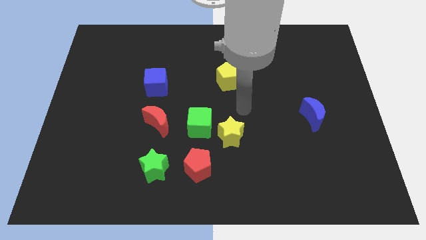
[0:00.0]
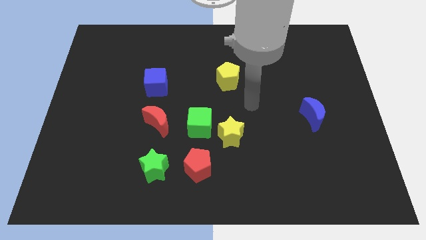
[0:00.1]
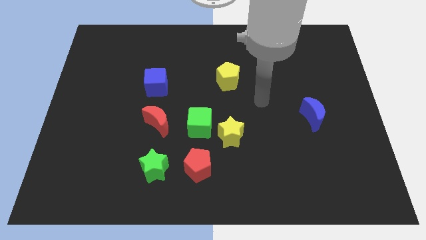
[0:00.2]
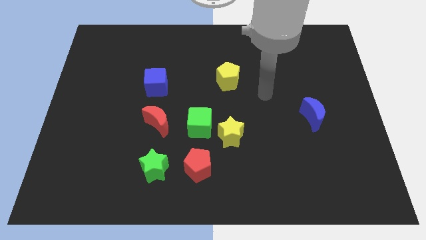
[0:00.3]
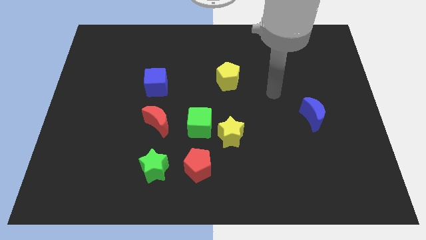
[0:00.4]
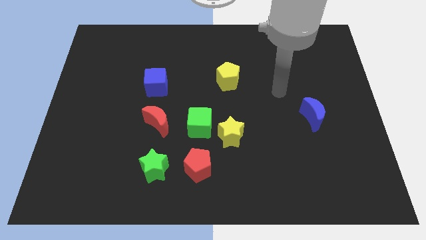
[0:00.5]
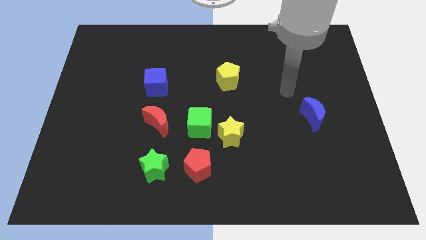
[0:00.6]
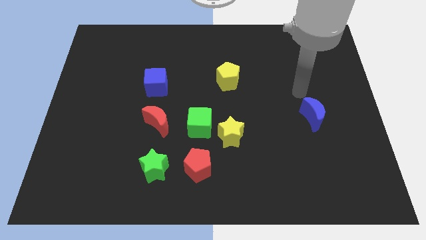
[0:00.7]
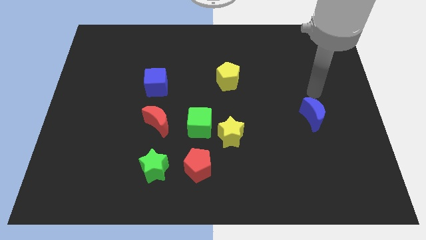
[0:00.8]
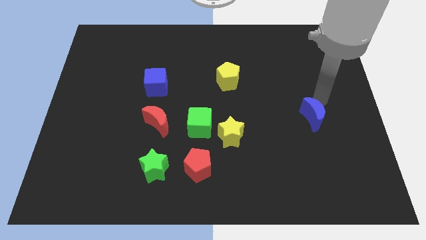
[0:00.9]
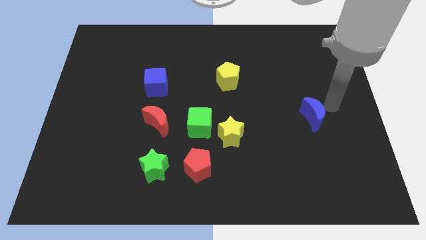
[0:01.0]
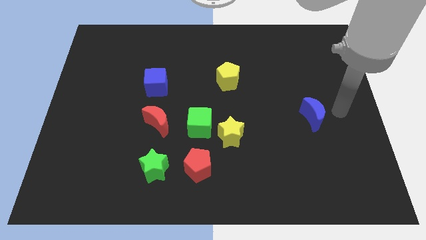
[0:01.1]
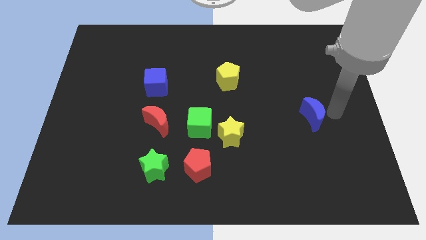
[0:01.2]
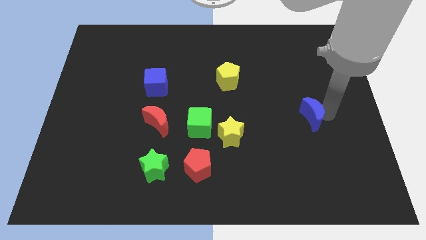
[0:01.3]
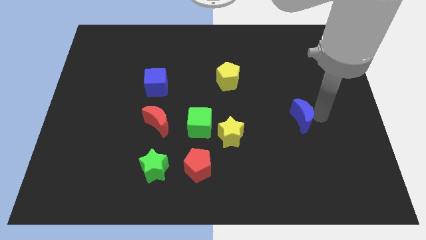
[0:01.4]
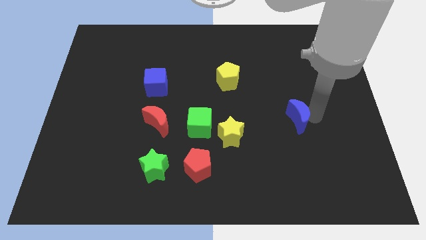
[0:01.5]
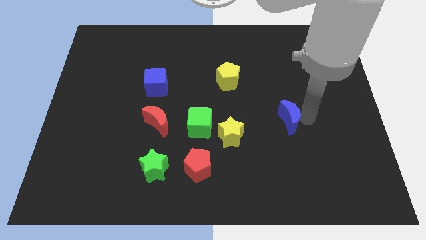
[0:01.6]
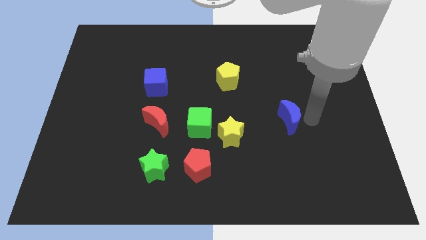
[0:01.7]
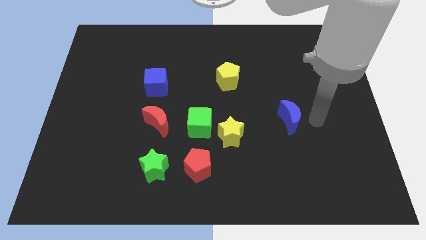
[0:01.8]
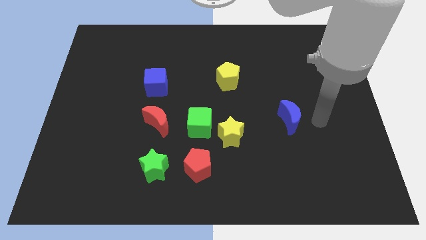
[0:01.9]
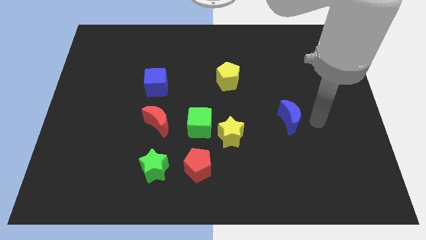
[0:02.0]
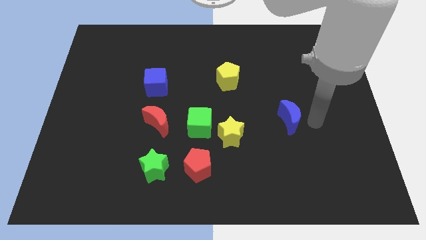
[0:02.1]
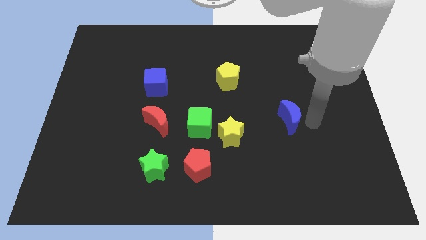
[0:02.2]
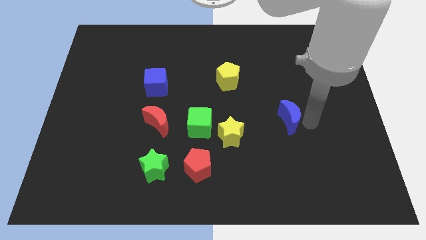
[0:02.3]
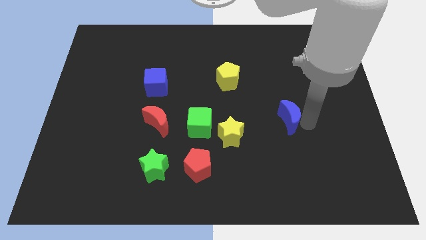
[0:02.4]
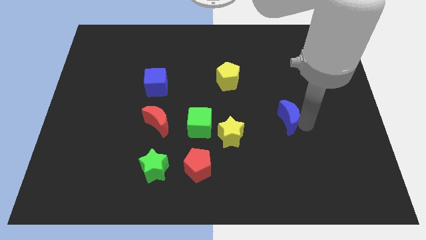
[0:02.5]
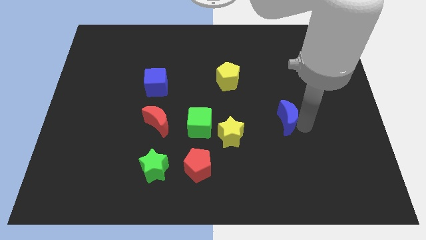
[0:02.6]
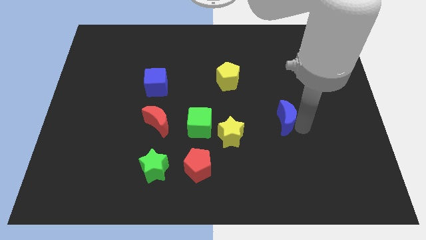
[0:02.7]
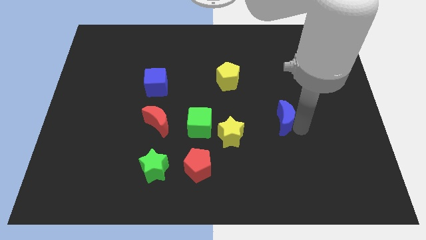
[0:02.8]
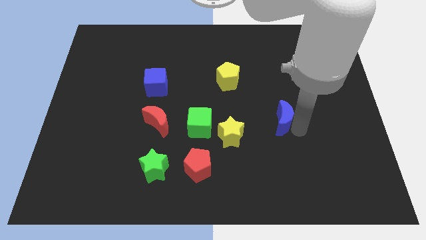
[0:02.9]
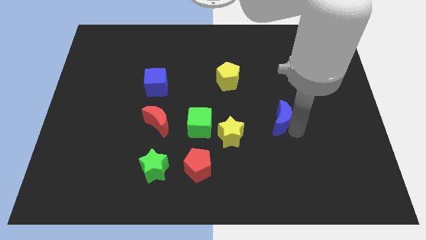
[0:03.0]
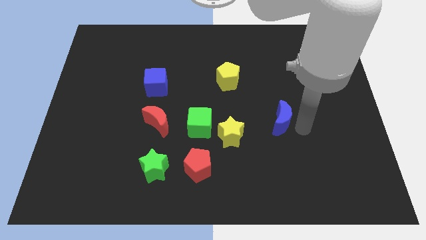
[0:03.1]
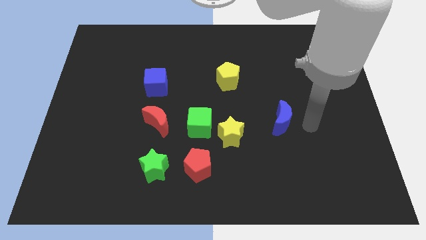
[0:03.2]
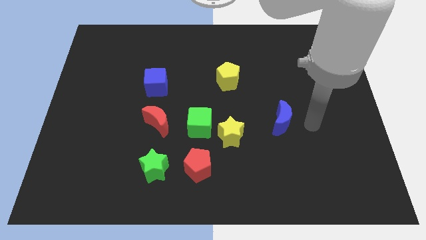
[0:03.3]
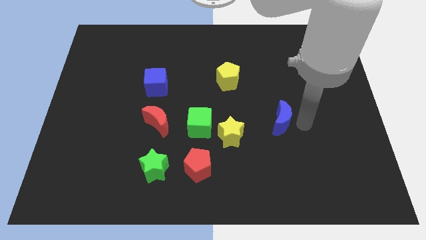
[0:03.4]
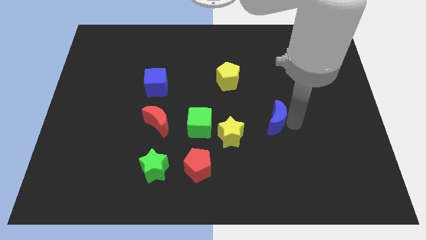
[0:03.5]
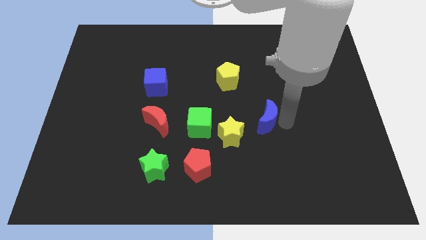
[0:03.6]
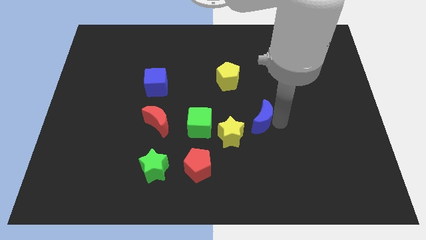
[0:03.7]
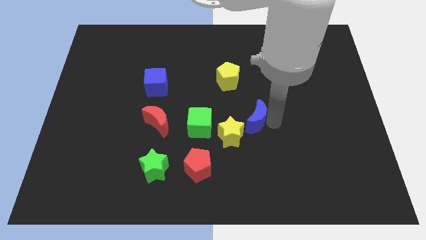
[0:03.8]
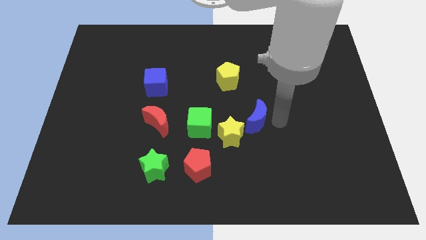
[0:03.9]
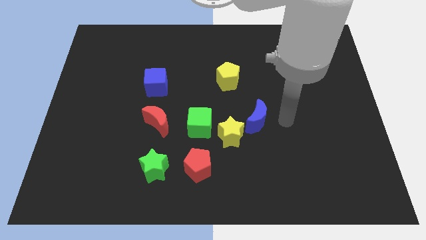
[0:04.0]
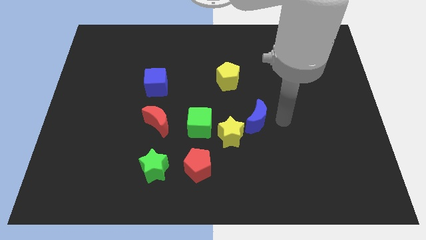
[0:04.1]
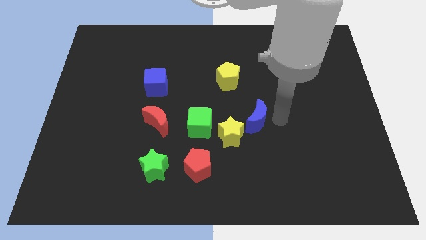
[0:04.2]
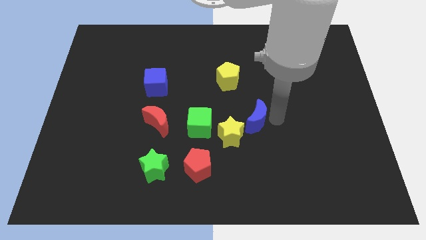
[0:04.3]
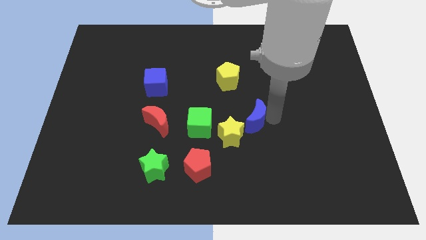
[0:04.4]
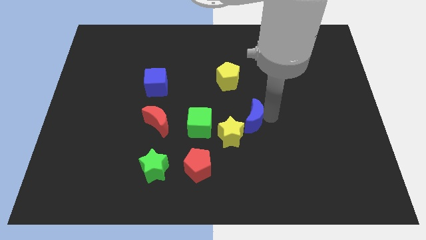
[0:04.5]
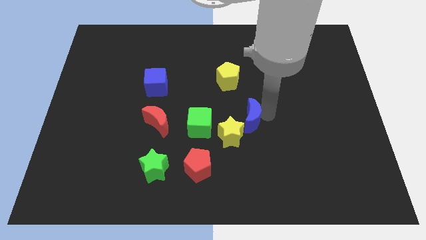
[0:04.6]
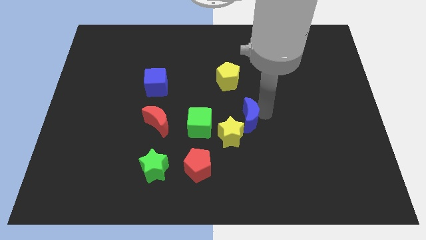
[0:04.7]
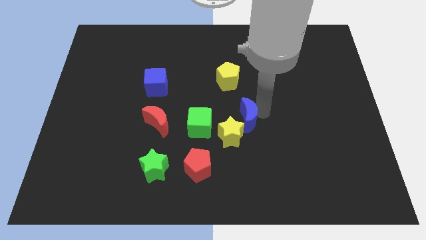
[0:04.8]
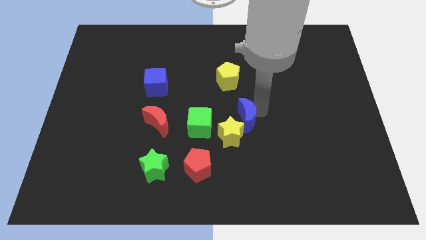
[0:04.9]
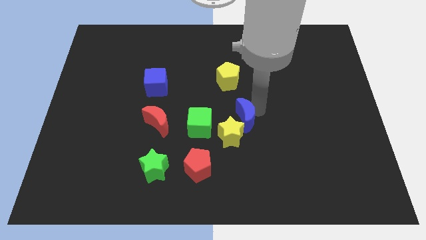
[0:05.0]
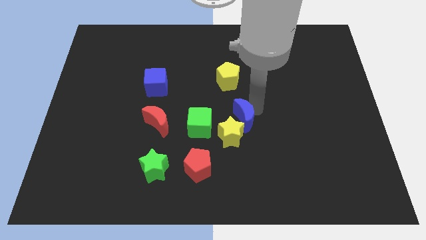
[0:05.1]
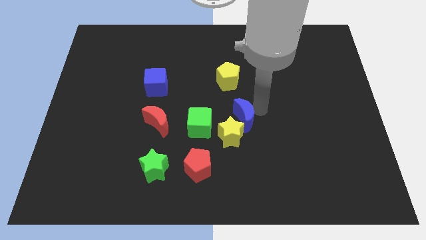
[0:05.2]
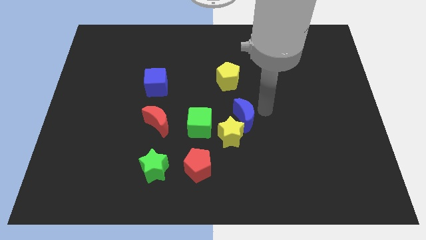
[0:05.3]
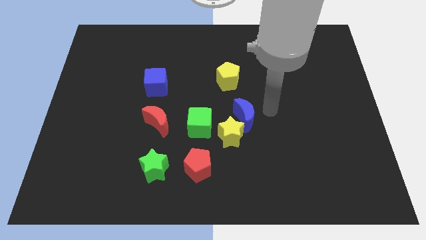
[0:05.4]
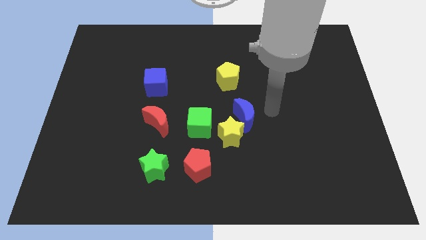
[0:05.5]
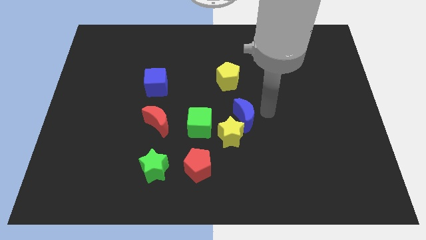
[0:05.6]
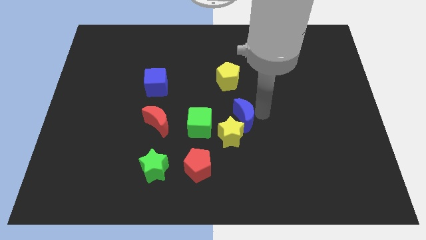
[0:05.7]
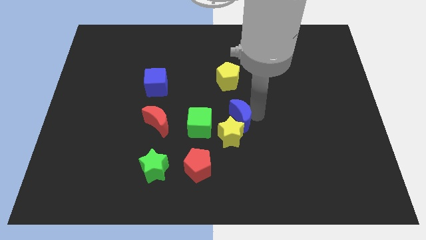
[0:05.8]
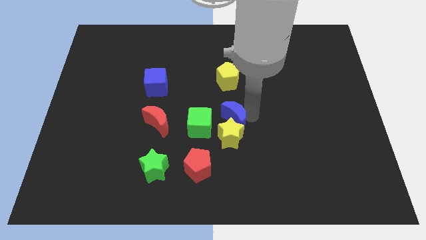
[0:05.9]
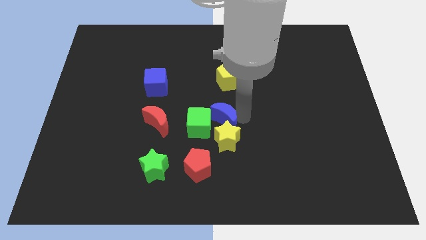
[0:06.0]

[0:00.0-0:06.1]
push the blue moon towards the green cube
